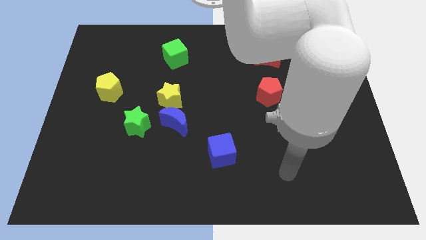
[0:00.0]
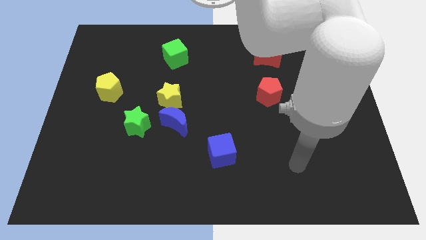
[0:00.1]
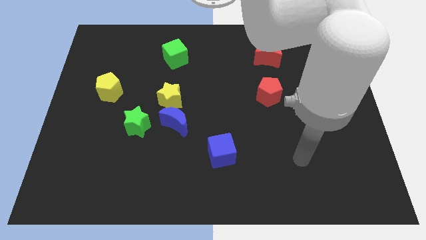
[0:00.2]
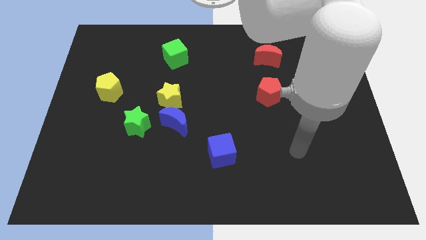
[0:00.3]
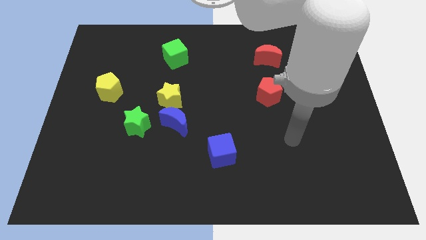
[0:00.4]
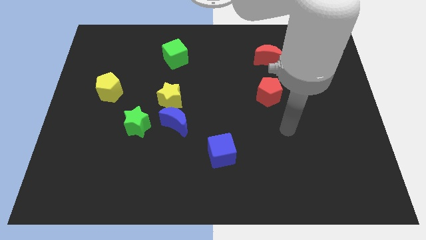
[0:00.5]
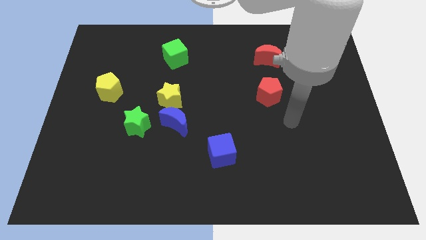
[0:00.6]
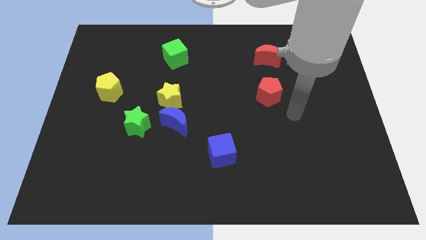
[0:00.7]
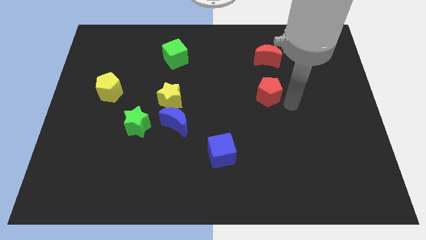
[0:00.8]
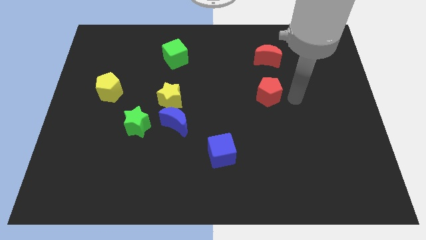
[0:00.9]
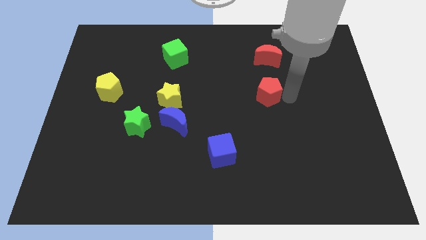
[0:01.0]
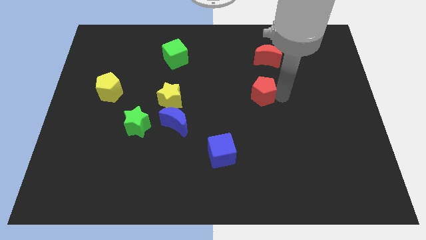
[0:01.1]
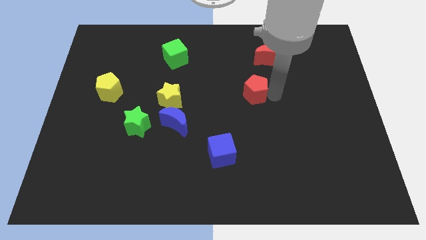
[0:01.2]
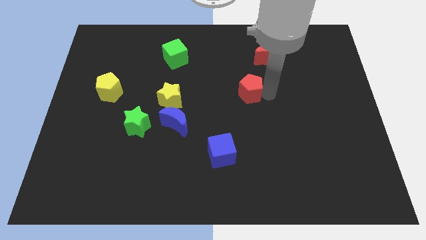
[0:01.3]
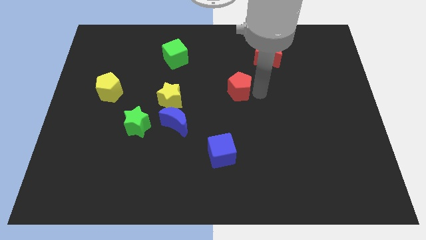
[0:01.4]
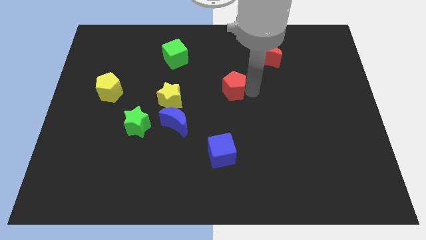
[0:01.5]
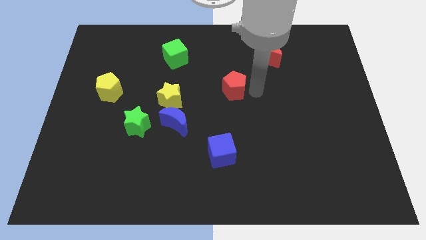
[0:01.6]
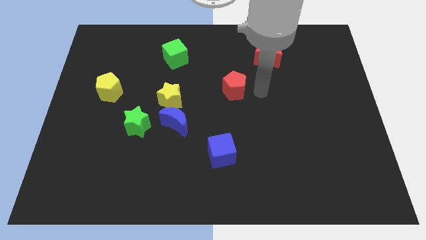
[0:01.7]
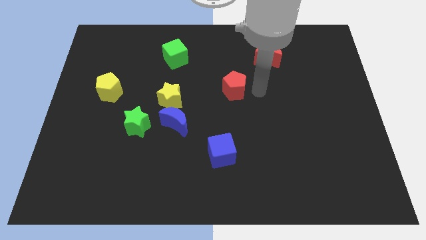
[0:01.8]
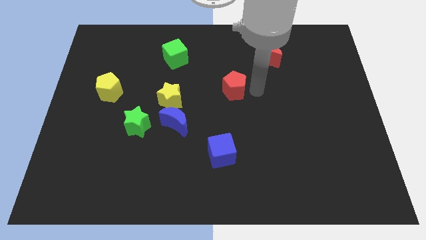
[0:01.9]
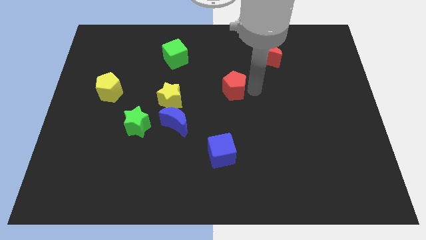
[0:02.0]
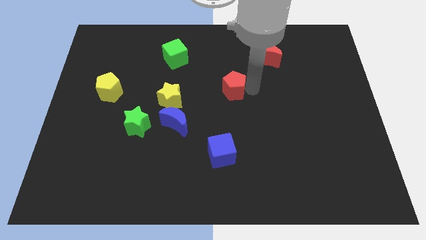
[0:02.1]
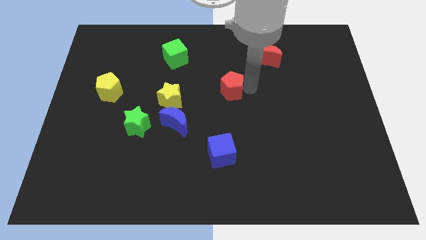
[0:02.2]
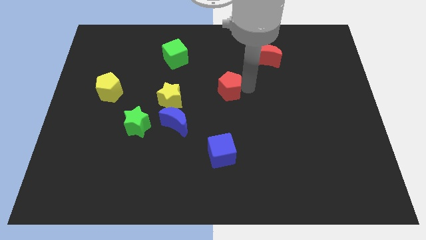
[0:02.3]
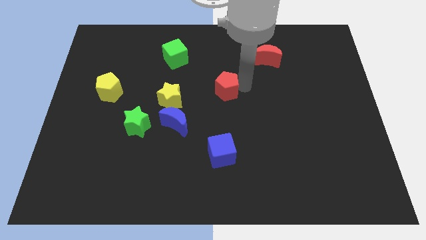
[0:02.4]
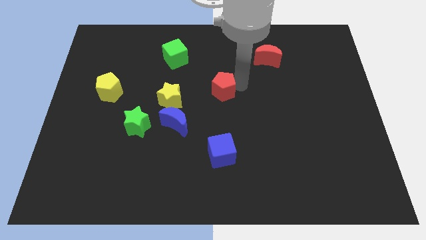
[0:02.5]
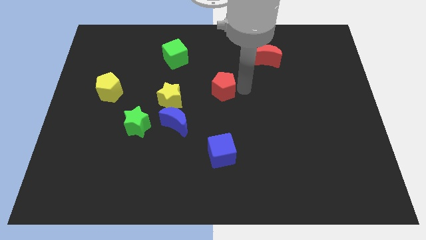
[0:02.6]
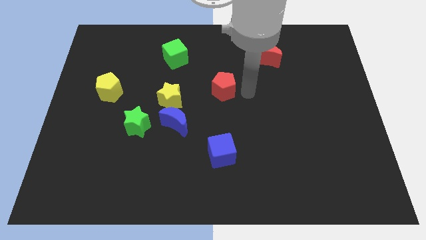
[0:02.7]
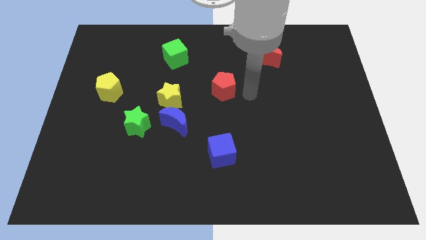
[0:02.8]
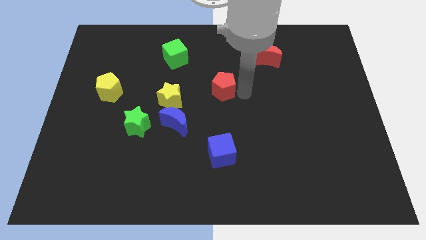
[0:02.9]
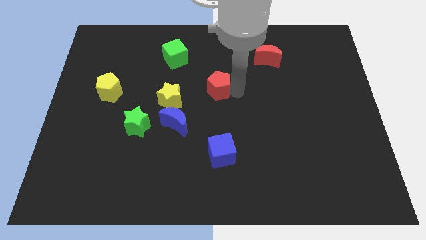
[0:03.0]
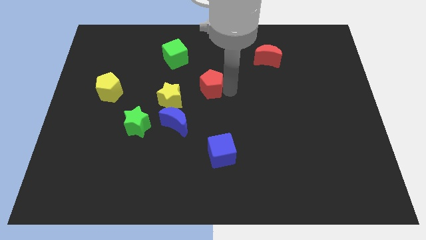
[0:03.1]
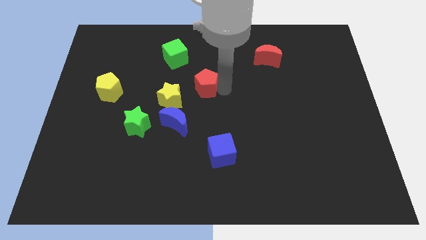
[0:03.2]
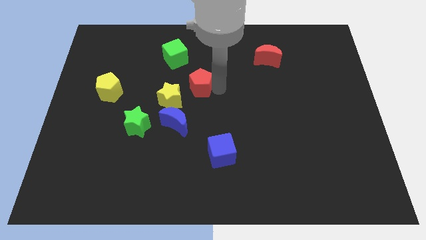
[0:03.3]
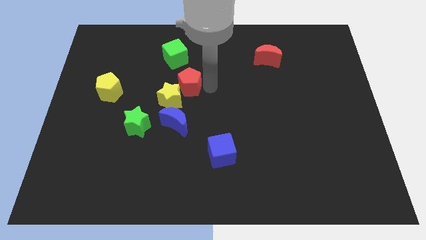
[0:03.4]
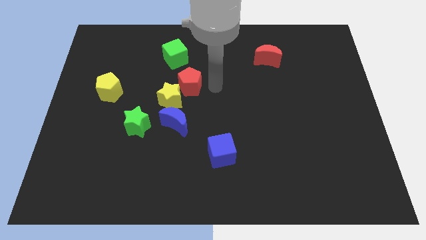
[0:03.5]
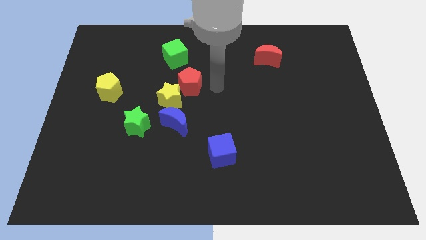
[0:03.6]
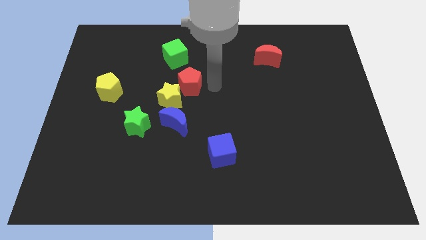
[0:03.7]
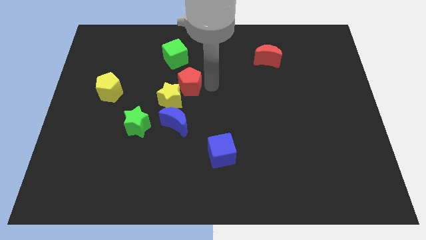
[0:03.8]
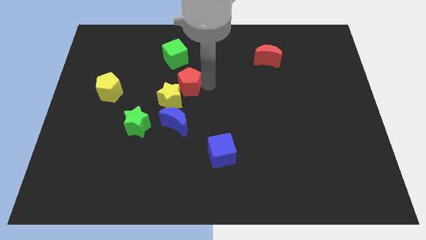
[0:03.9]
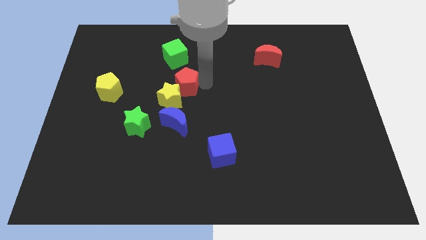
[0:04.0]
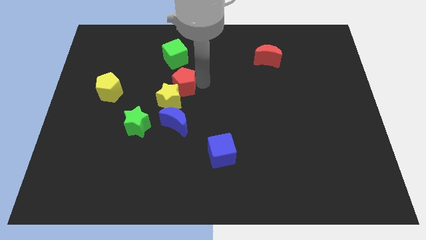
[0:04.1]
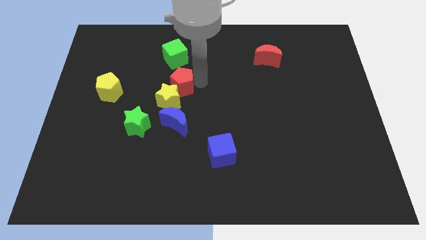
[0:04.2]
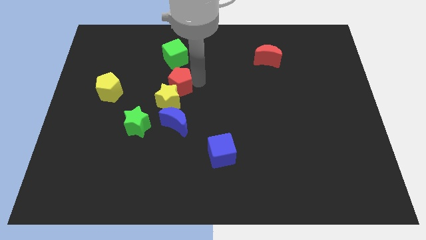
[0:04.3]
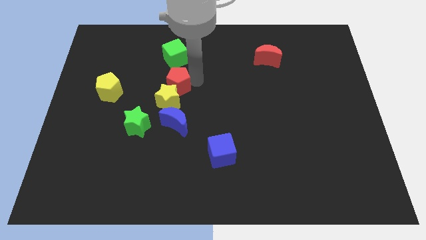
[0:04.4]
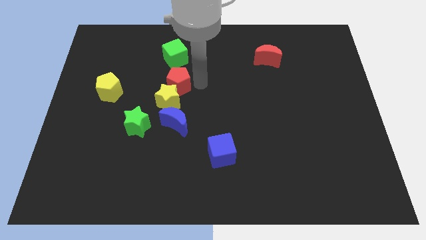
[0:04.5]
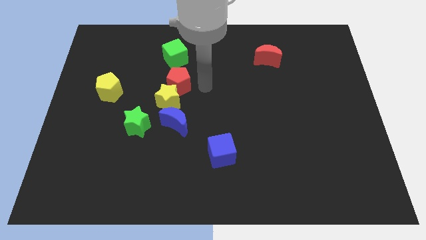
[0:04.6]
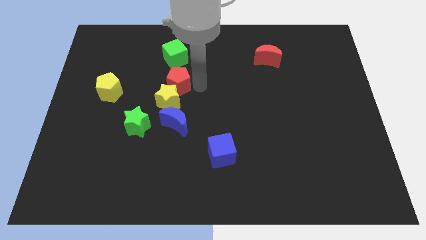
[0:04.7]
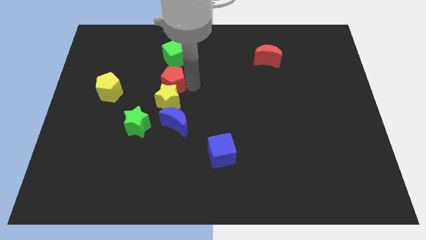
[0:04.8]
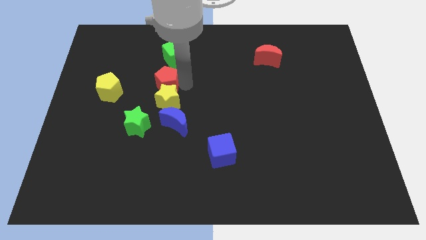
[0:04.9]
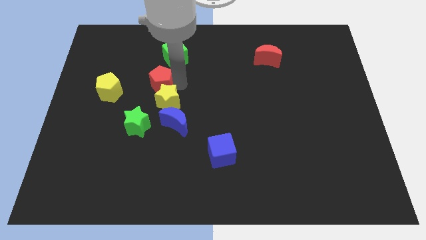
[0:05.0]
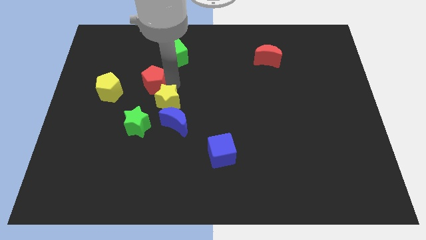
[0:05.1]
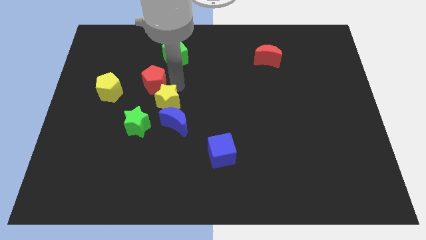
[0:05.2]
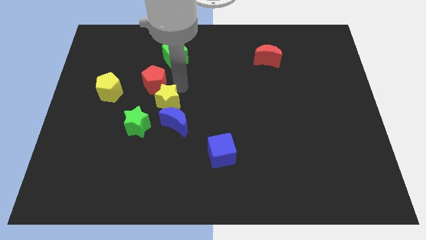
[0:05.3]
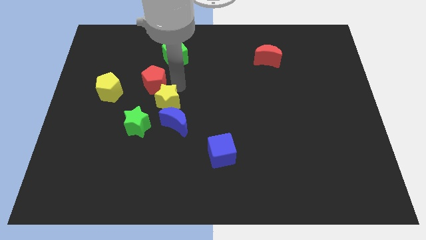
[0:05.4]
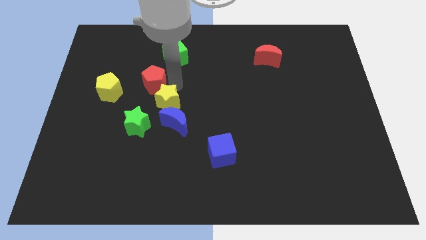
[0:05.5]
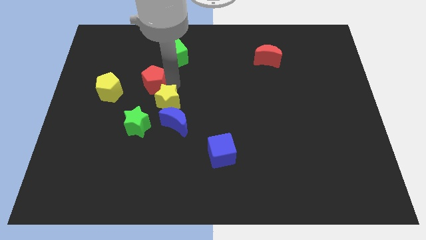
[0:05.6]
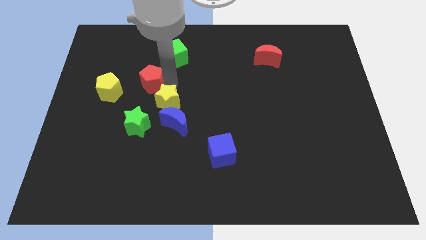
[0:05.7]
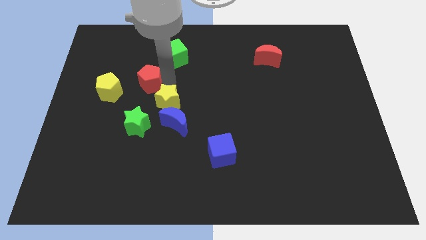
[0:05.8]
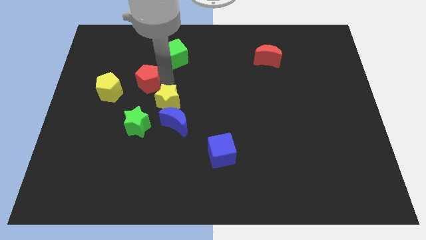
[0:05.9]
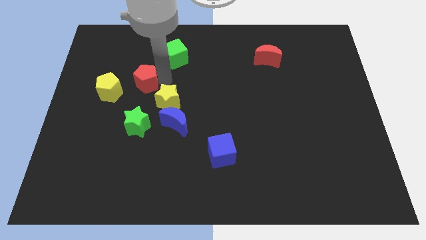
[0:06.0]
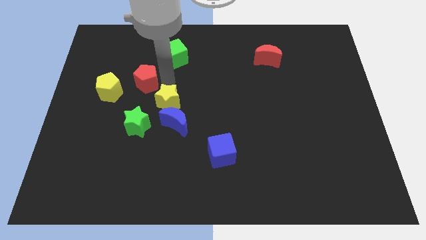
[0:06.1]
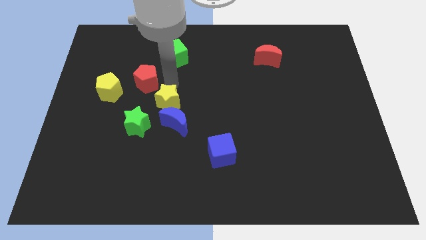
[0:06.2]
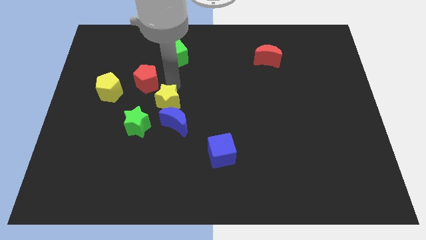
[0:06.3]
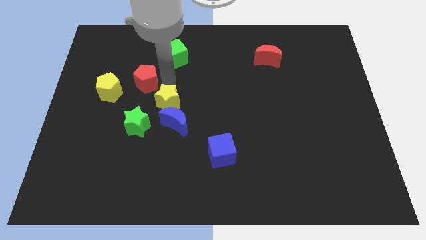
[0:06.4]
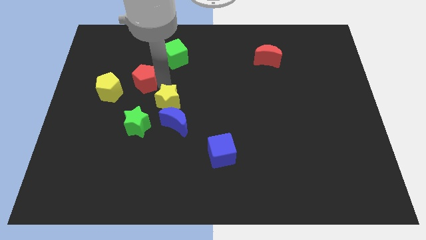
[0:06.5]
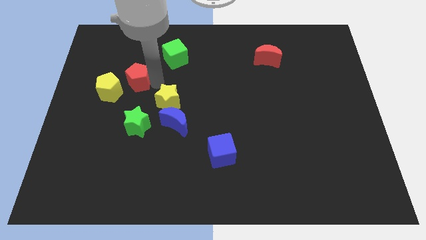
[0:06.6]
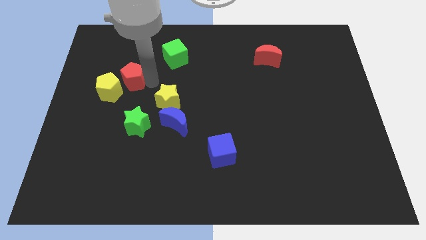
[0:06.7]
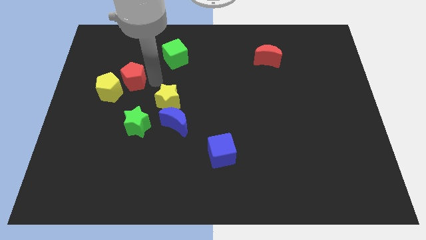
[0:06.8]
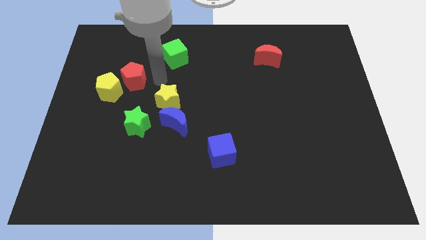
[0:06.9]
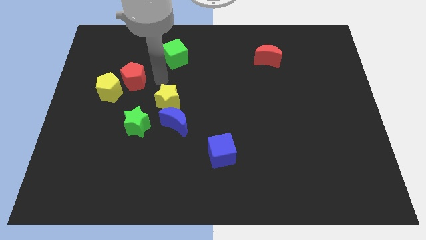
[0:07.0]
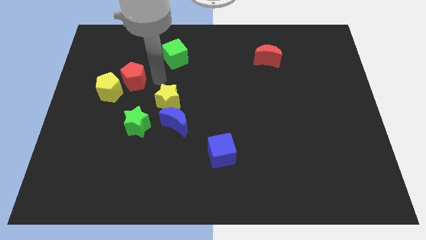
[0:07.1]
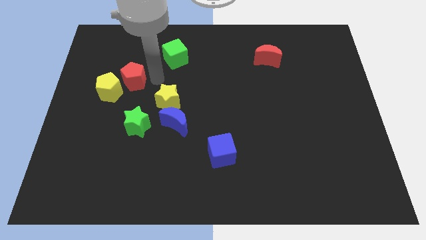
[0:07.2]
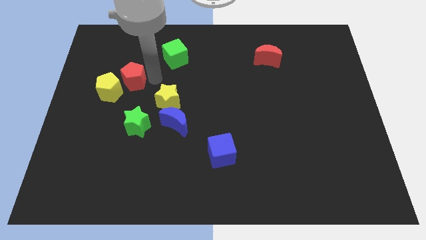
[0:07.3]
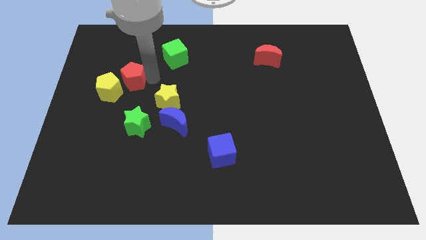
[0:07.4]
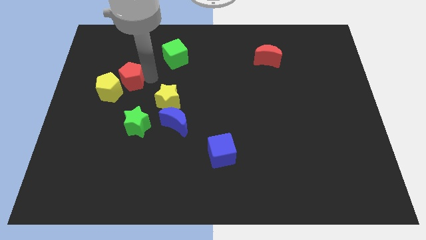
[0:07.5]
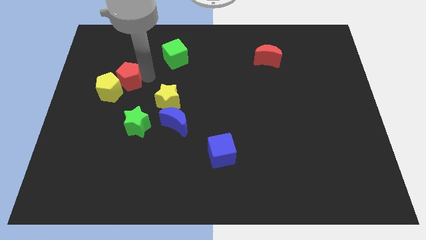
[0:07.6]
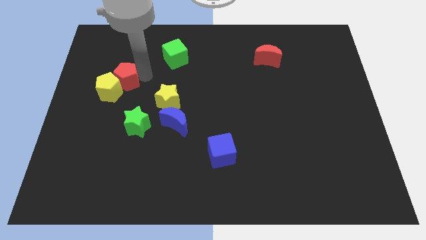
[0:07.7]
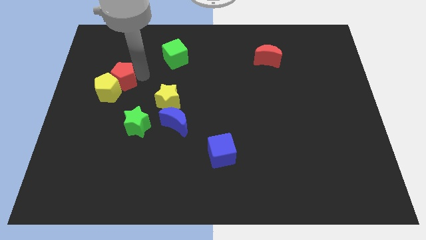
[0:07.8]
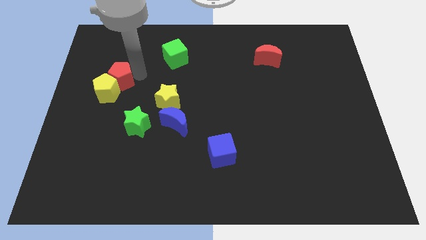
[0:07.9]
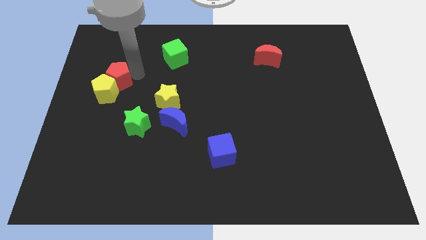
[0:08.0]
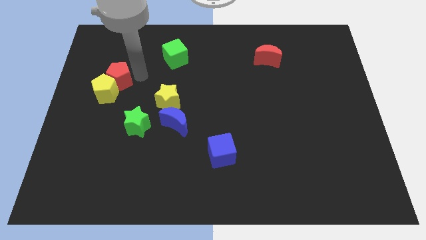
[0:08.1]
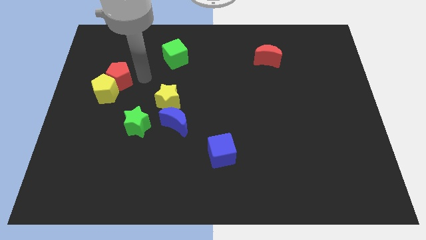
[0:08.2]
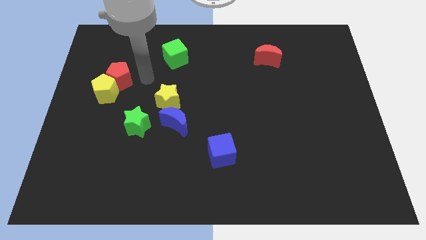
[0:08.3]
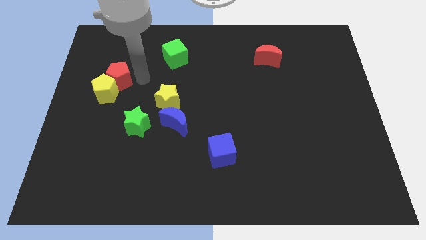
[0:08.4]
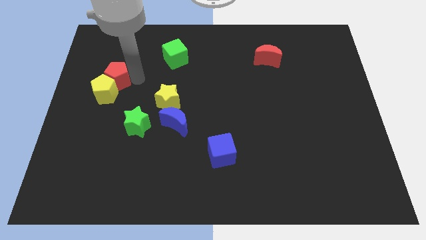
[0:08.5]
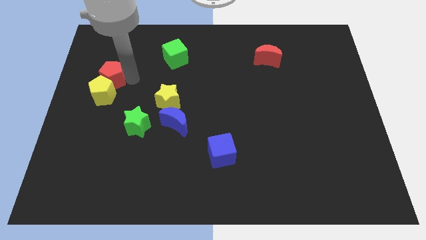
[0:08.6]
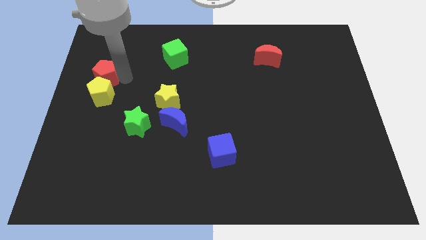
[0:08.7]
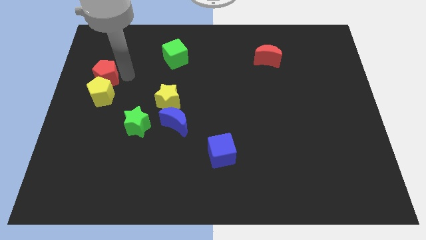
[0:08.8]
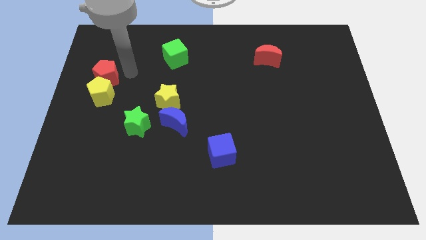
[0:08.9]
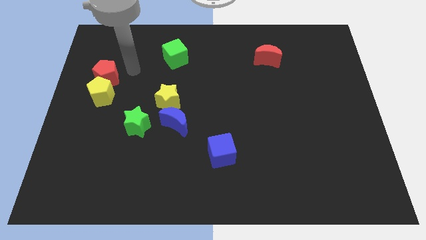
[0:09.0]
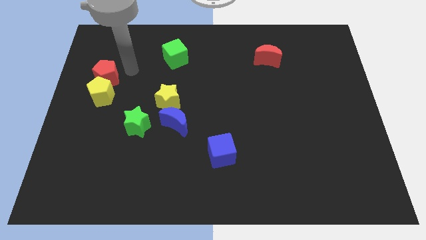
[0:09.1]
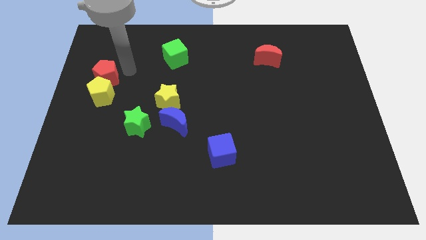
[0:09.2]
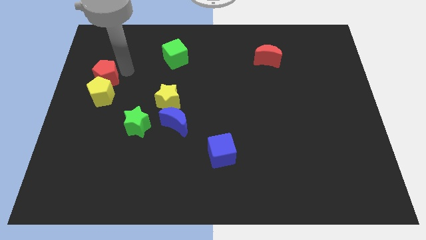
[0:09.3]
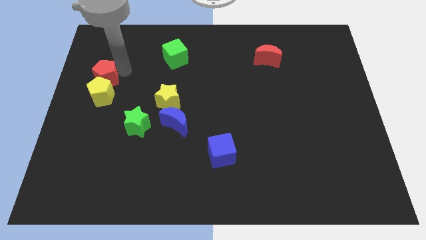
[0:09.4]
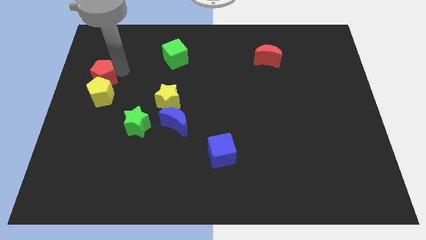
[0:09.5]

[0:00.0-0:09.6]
push the red pentagon to the left side
